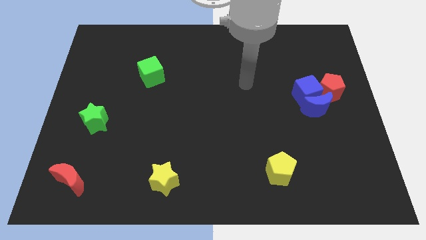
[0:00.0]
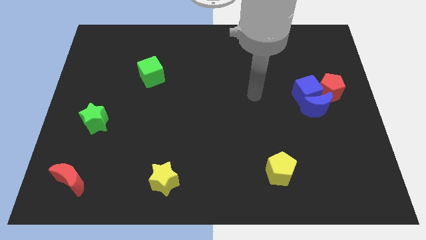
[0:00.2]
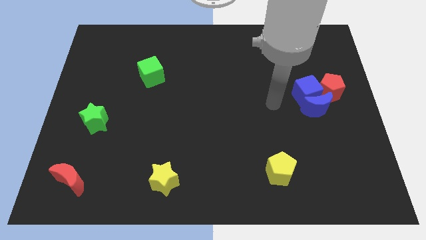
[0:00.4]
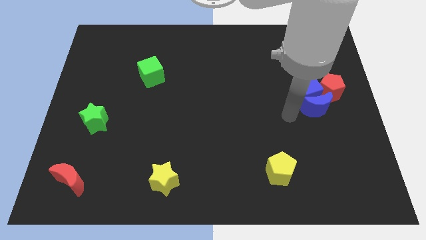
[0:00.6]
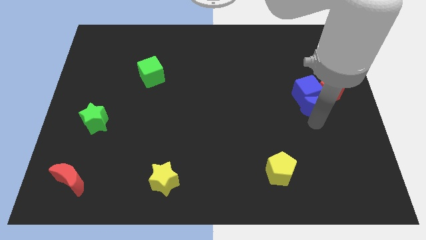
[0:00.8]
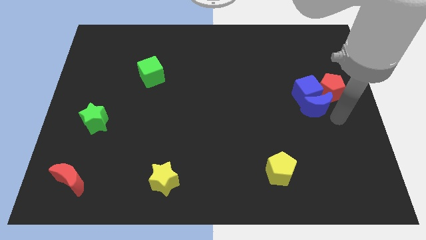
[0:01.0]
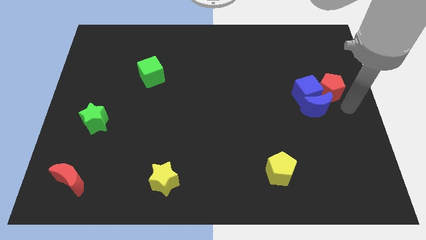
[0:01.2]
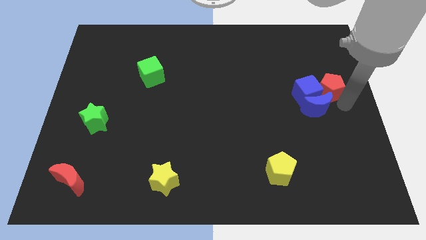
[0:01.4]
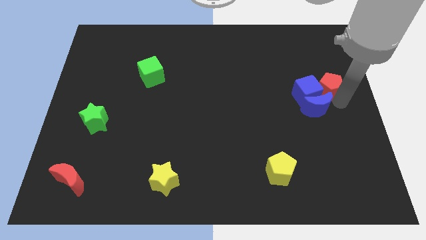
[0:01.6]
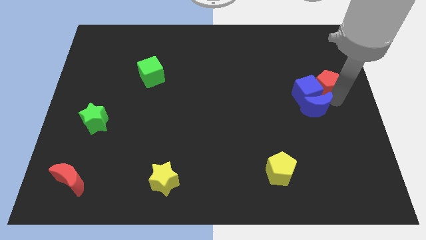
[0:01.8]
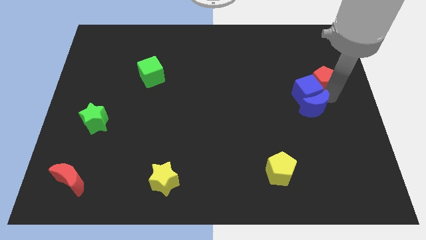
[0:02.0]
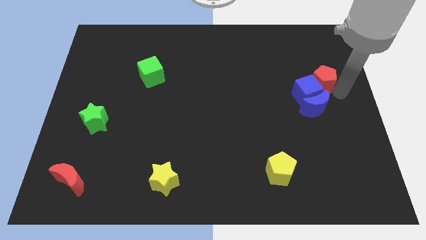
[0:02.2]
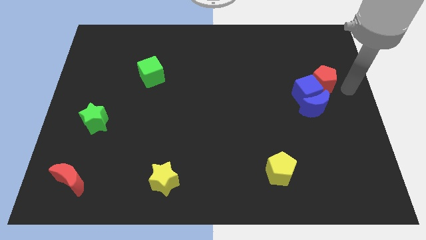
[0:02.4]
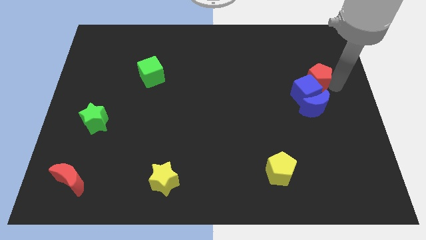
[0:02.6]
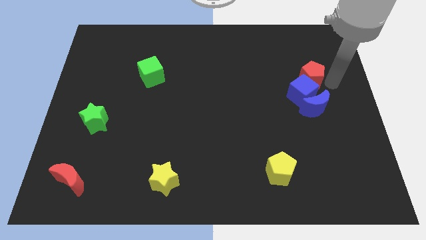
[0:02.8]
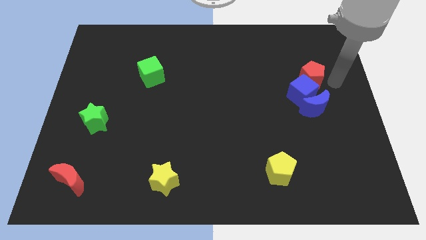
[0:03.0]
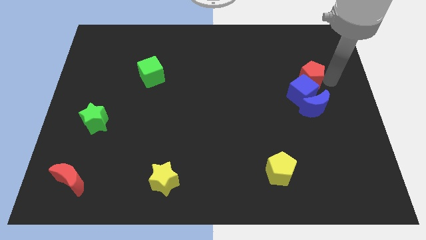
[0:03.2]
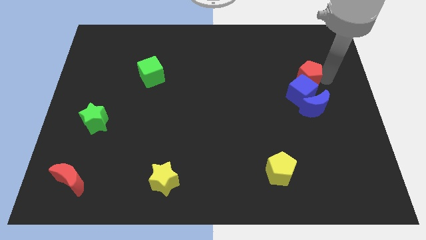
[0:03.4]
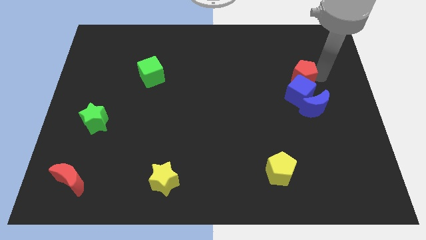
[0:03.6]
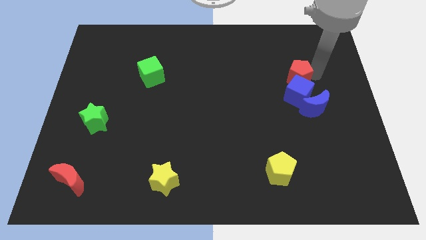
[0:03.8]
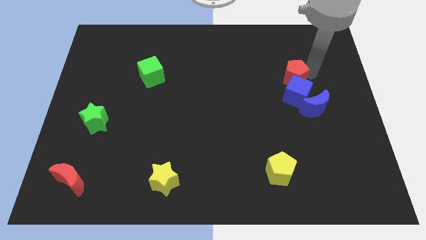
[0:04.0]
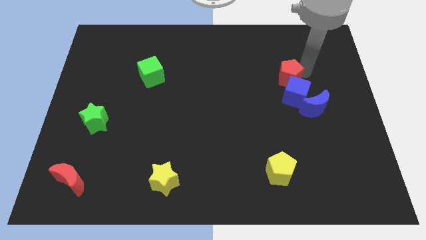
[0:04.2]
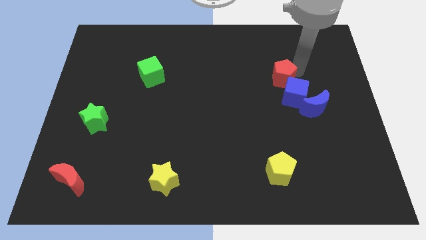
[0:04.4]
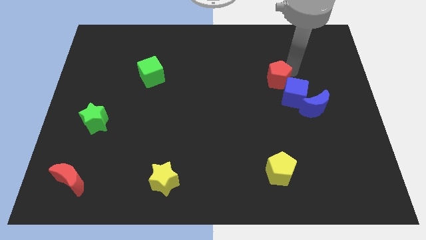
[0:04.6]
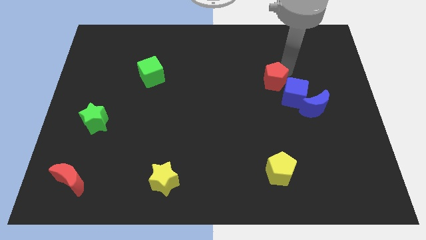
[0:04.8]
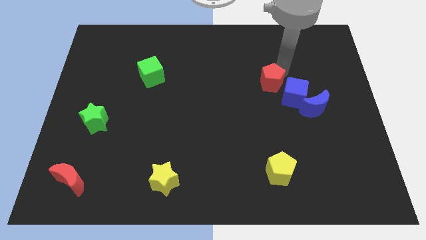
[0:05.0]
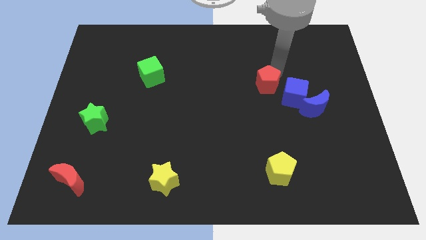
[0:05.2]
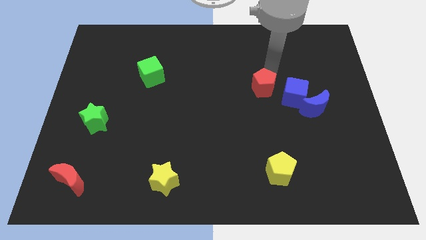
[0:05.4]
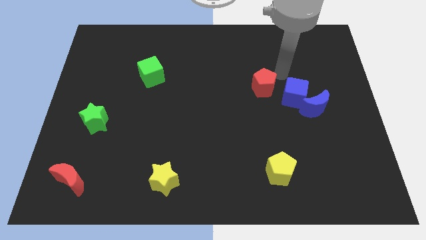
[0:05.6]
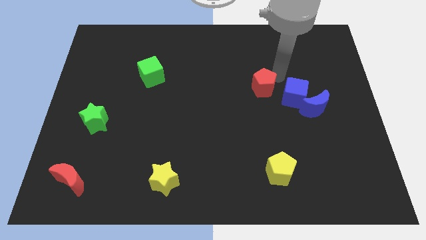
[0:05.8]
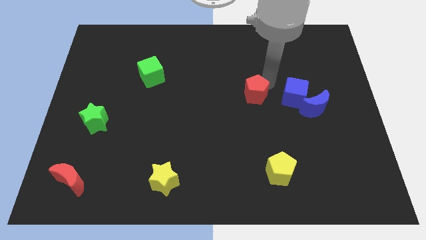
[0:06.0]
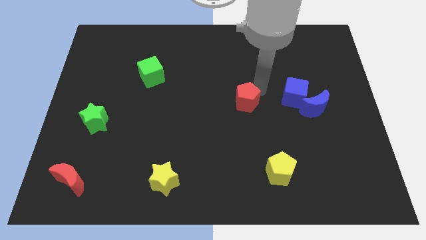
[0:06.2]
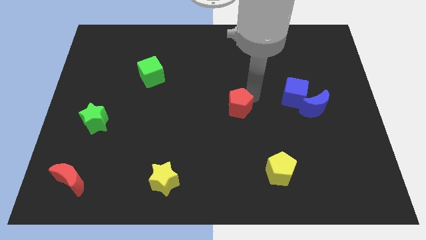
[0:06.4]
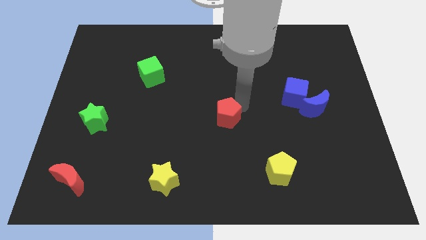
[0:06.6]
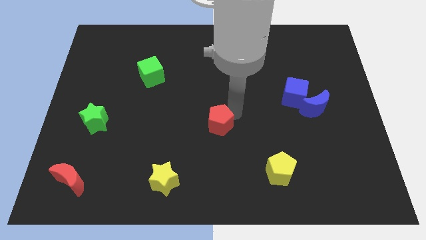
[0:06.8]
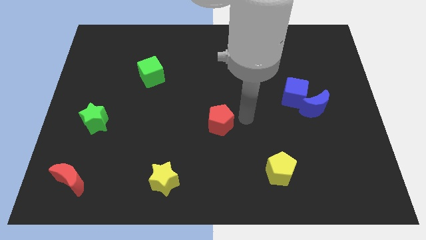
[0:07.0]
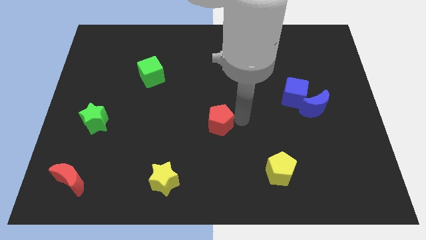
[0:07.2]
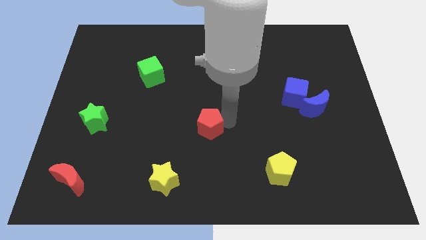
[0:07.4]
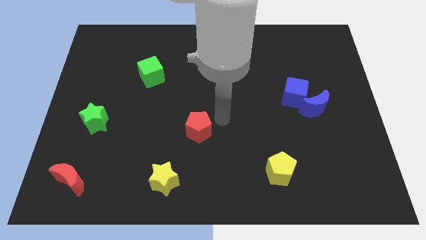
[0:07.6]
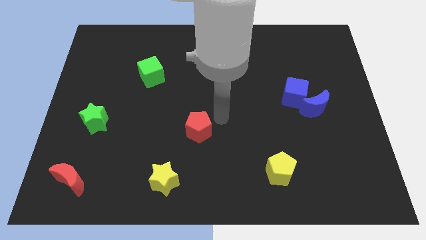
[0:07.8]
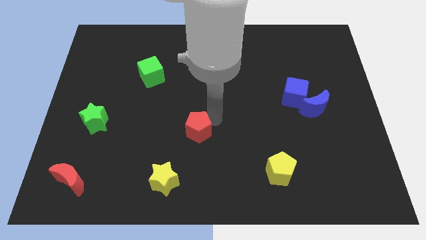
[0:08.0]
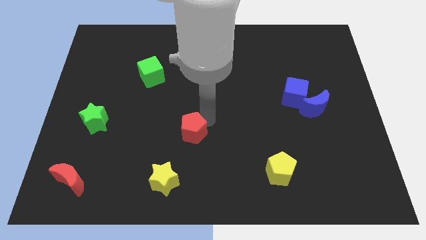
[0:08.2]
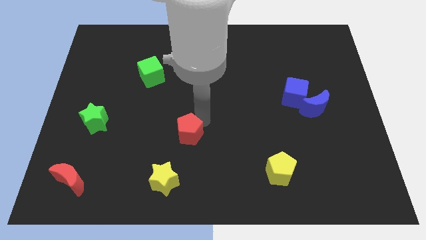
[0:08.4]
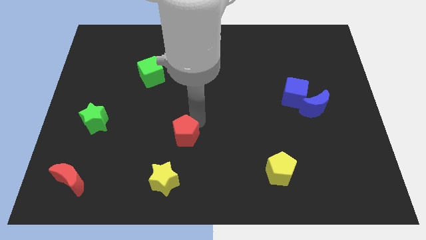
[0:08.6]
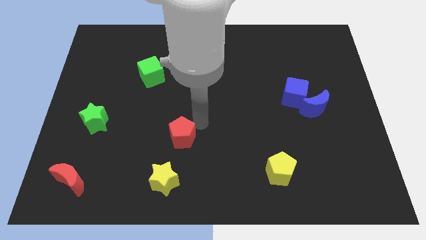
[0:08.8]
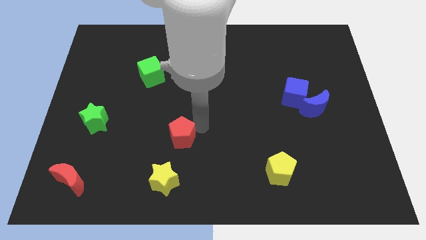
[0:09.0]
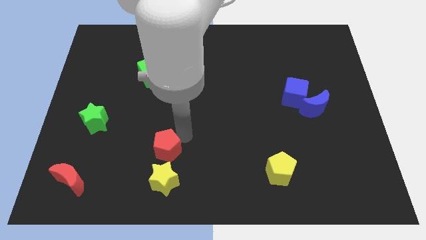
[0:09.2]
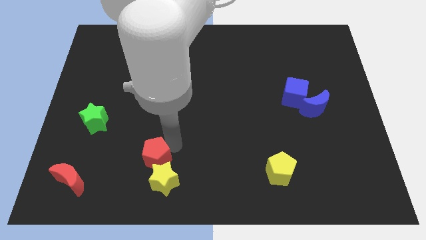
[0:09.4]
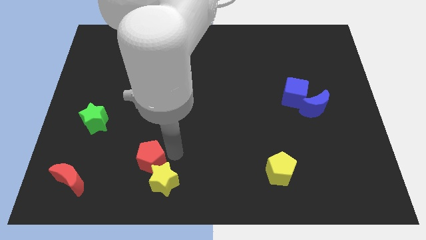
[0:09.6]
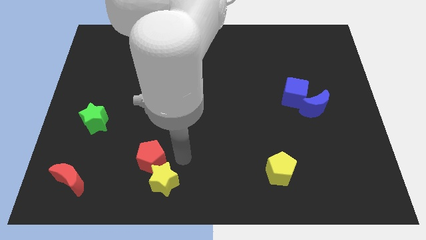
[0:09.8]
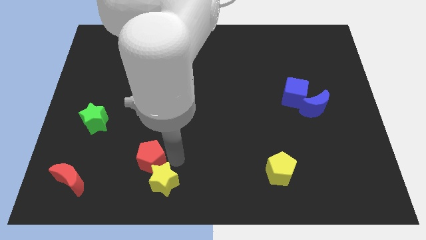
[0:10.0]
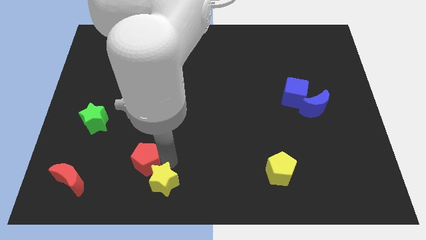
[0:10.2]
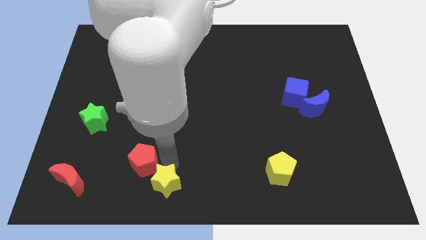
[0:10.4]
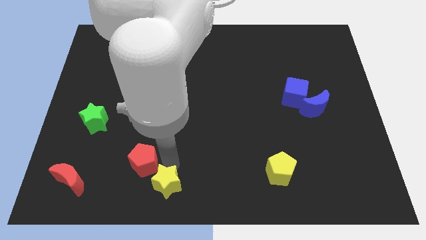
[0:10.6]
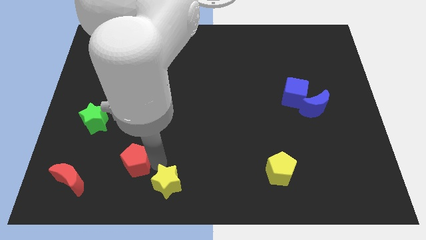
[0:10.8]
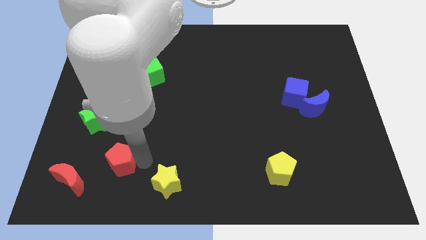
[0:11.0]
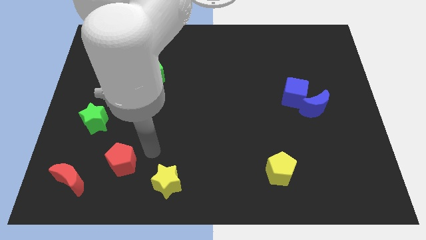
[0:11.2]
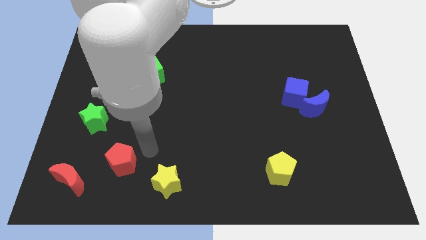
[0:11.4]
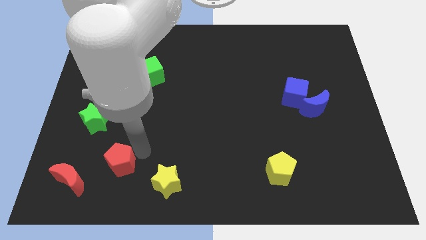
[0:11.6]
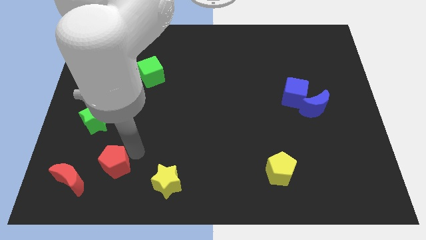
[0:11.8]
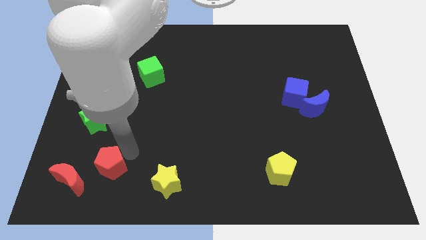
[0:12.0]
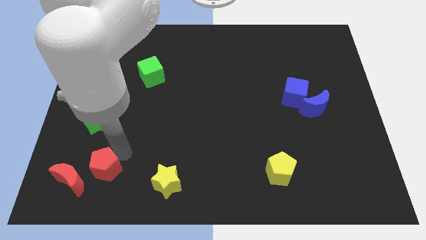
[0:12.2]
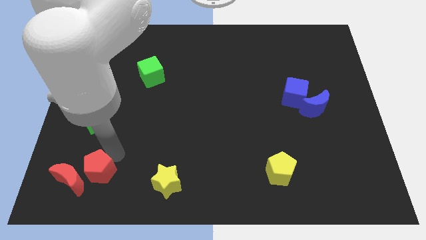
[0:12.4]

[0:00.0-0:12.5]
push the red pentagon towards the red moon
